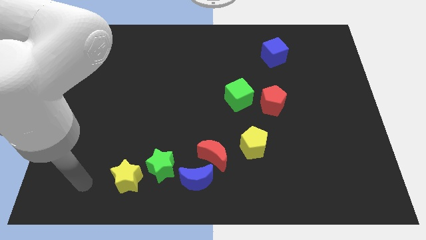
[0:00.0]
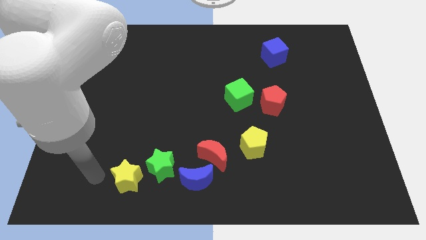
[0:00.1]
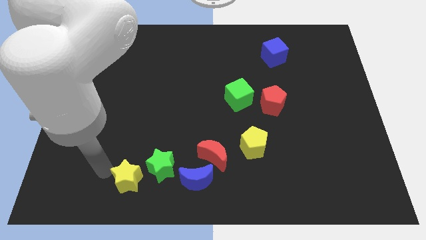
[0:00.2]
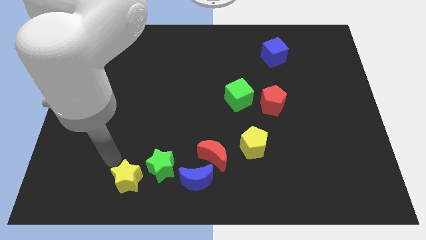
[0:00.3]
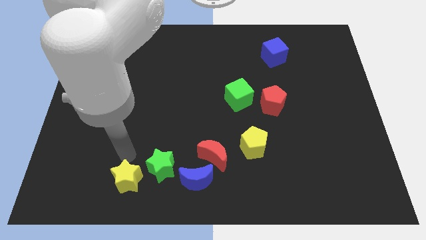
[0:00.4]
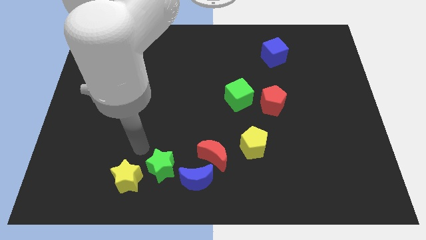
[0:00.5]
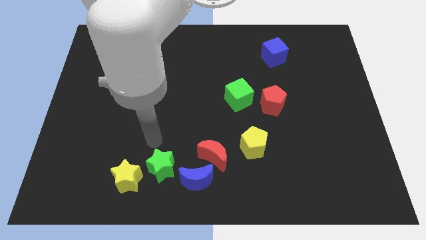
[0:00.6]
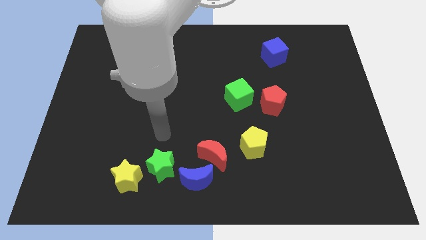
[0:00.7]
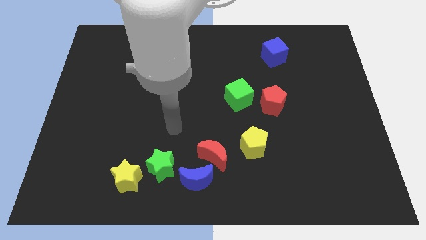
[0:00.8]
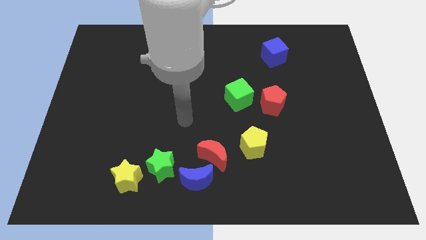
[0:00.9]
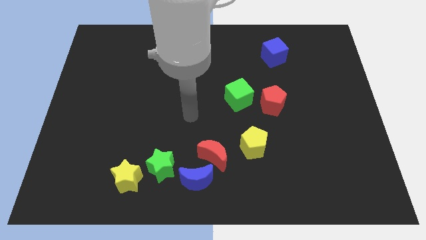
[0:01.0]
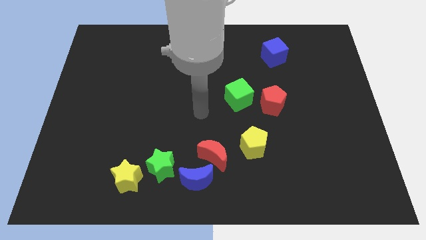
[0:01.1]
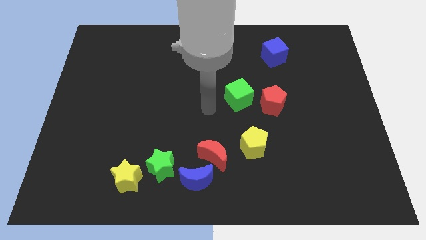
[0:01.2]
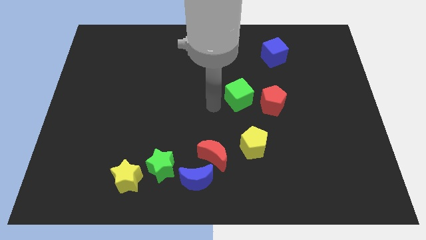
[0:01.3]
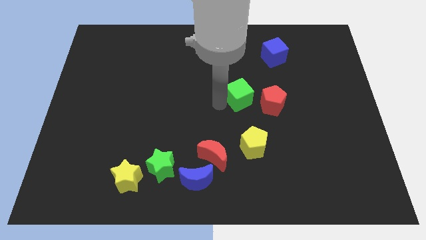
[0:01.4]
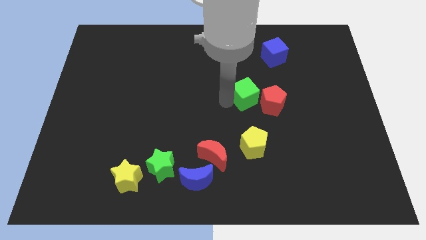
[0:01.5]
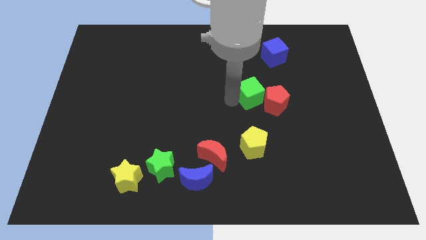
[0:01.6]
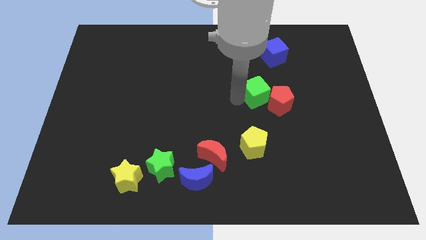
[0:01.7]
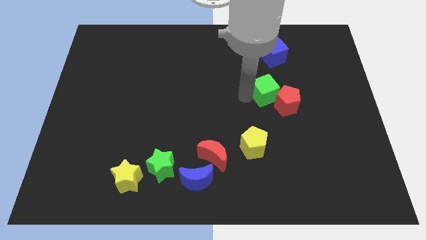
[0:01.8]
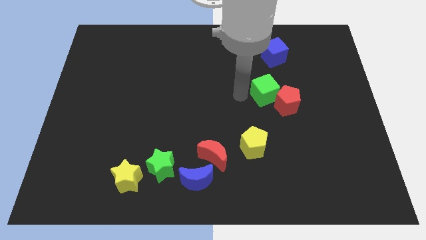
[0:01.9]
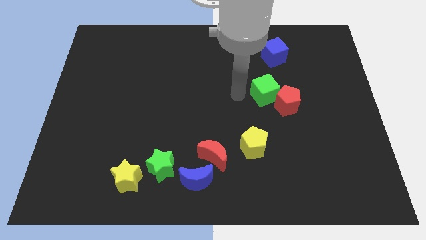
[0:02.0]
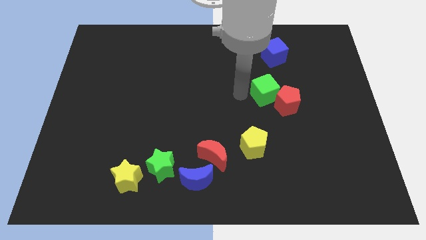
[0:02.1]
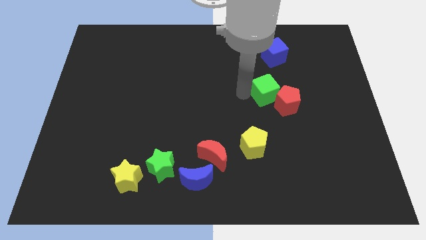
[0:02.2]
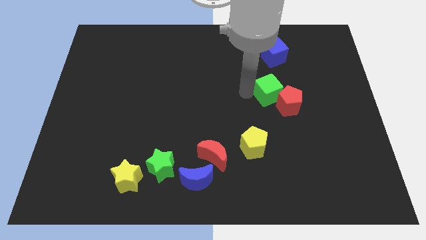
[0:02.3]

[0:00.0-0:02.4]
push the green cube to the right a little bit

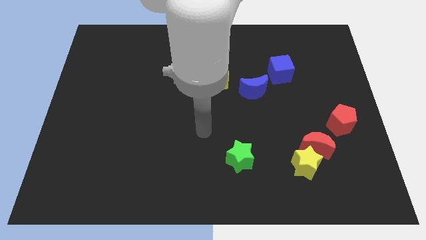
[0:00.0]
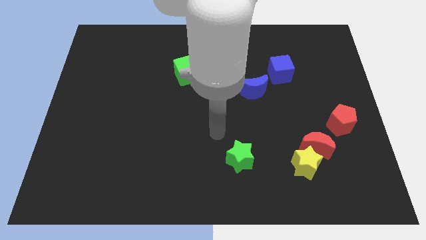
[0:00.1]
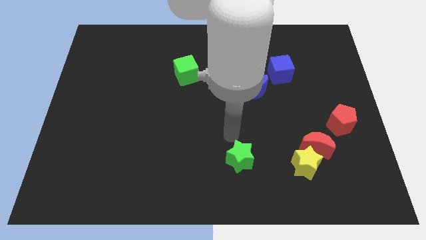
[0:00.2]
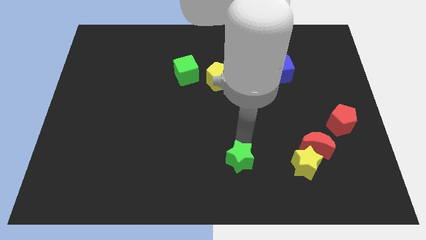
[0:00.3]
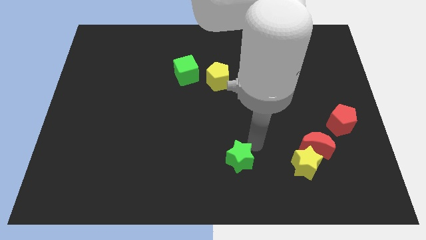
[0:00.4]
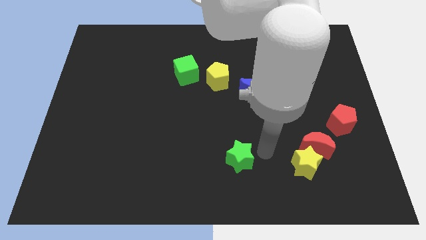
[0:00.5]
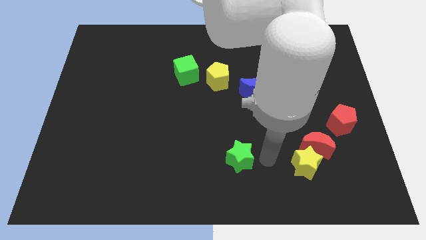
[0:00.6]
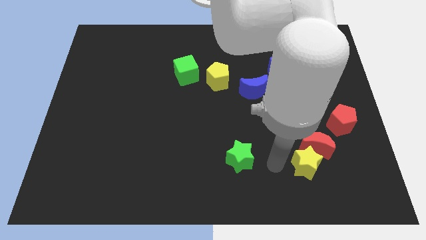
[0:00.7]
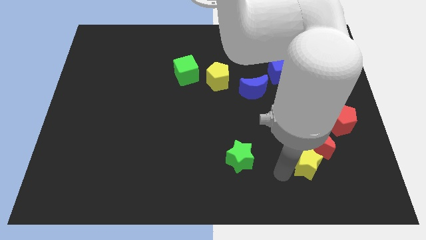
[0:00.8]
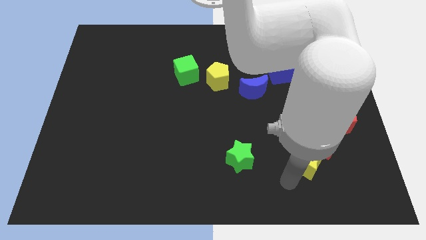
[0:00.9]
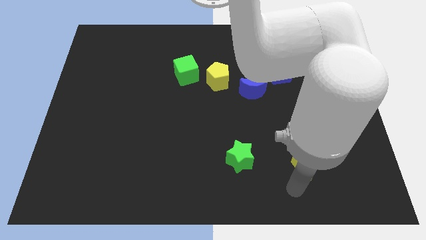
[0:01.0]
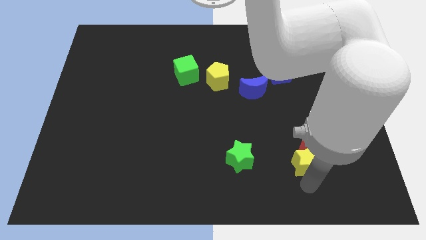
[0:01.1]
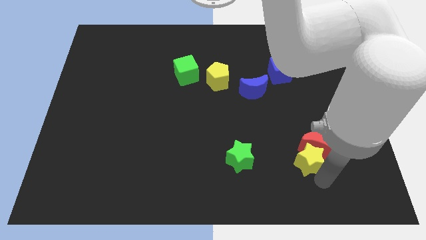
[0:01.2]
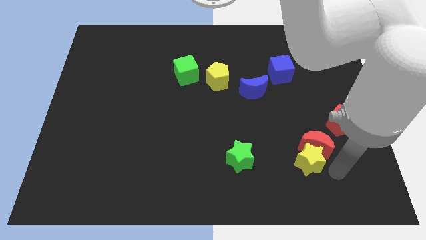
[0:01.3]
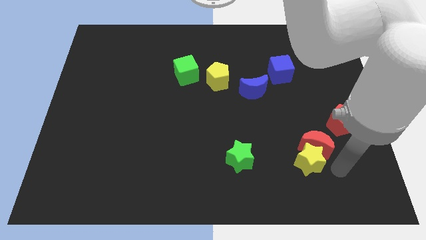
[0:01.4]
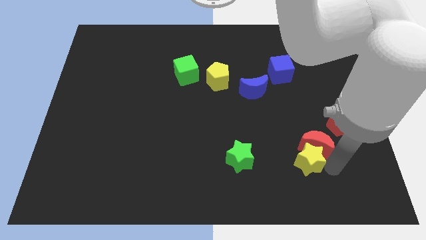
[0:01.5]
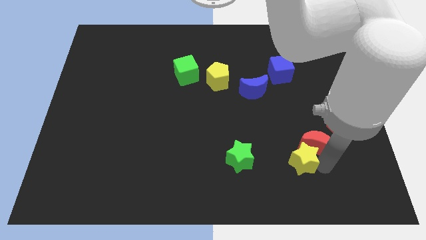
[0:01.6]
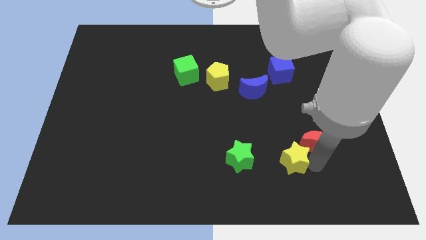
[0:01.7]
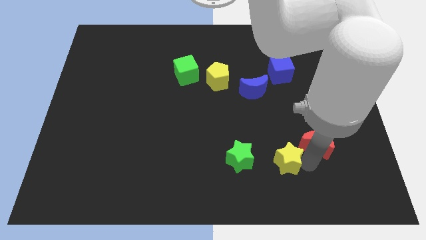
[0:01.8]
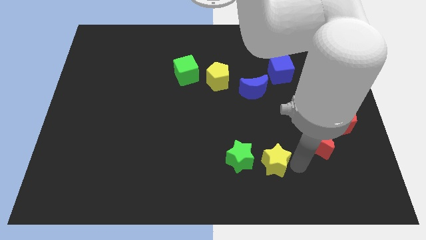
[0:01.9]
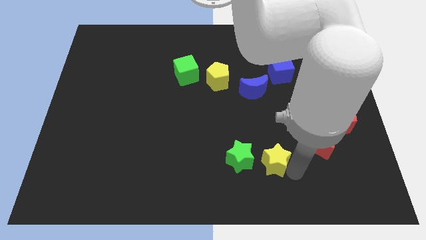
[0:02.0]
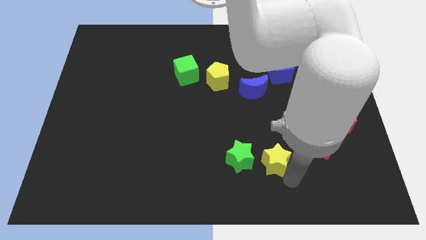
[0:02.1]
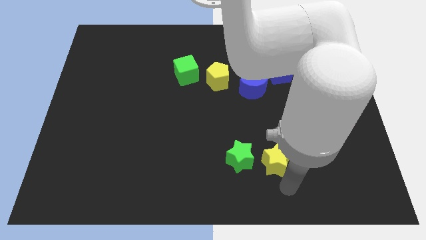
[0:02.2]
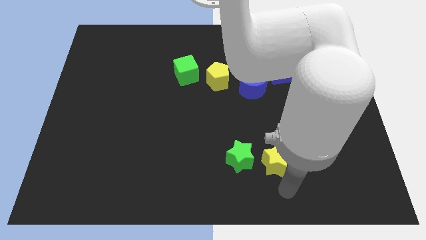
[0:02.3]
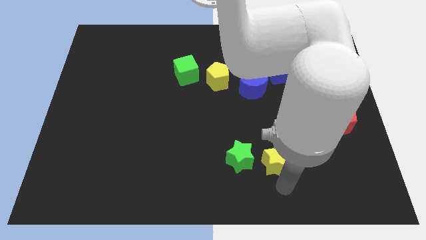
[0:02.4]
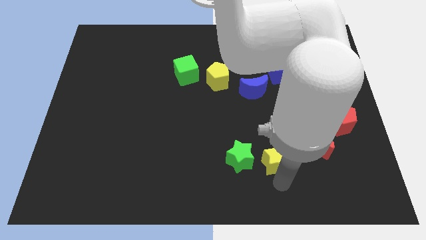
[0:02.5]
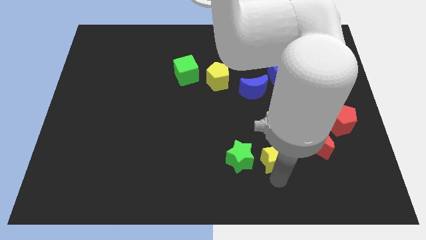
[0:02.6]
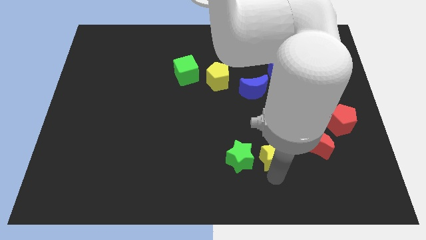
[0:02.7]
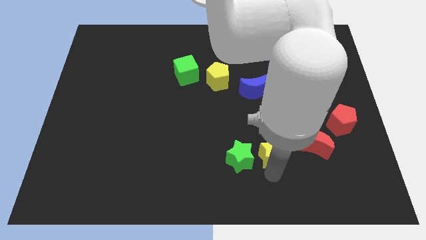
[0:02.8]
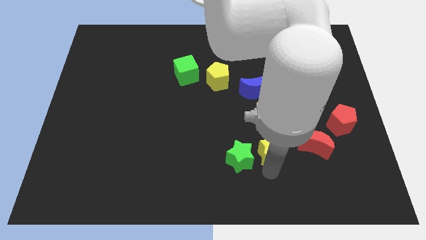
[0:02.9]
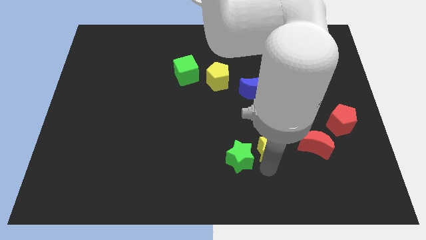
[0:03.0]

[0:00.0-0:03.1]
move the yellow star a bit upwards and to the left

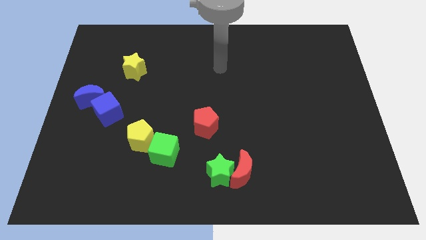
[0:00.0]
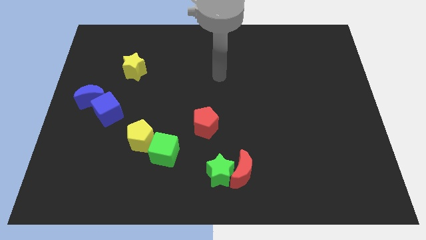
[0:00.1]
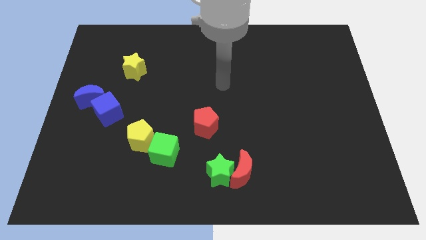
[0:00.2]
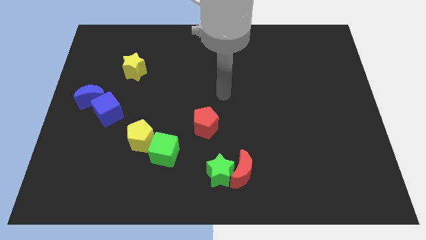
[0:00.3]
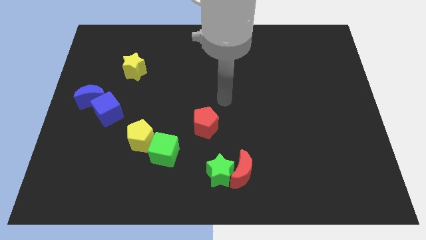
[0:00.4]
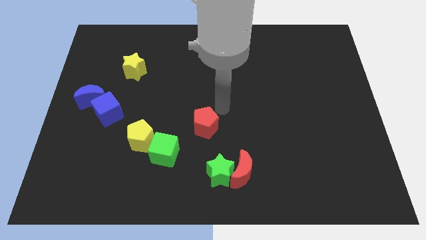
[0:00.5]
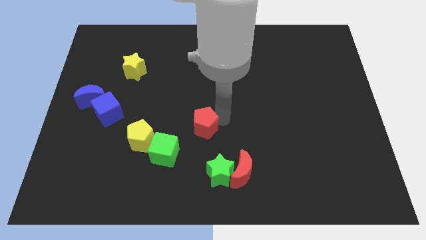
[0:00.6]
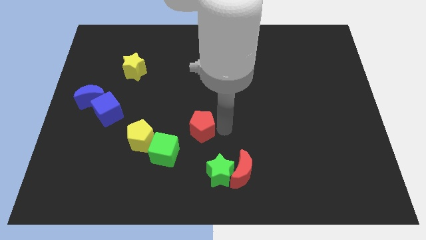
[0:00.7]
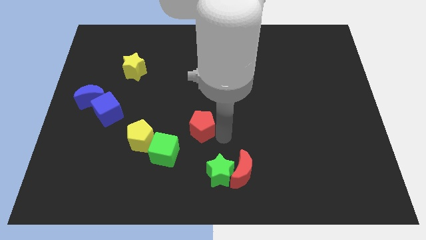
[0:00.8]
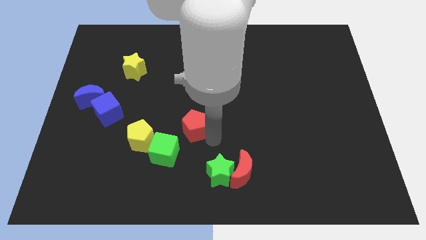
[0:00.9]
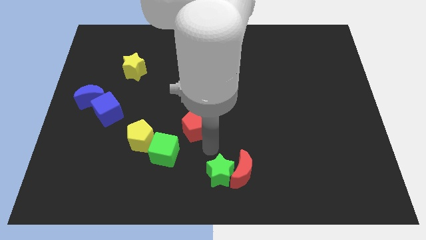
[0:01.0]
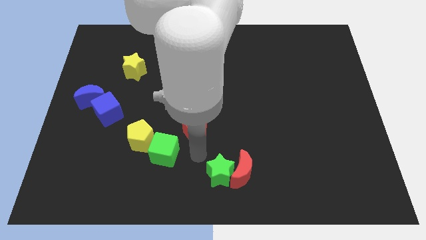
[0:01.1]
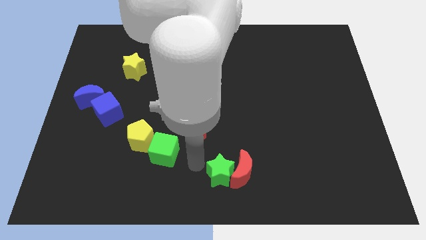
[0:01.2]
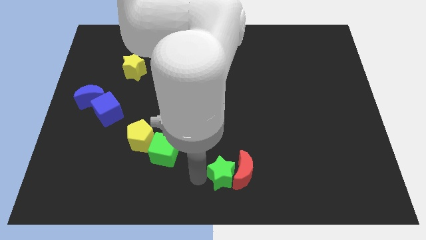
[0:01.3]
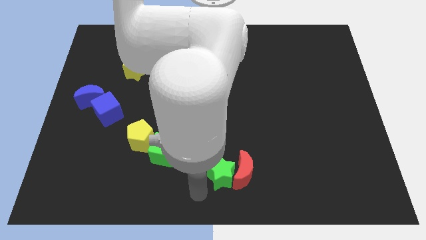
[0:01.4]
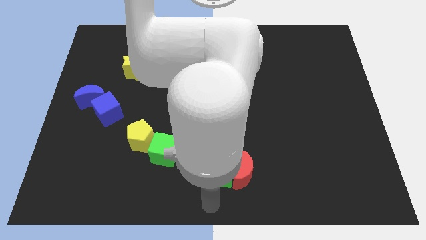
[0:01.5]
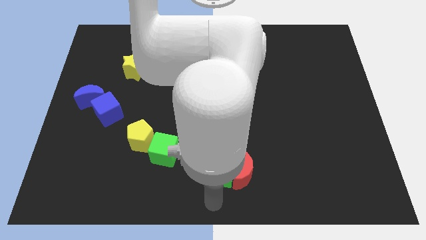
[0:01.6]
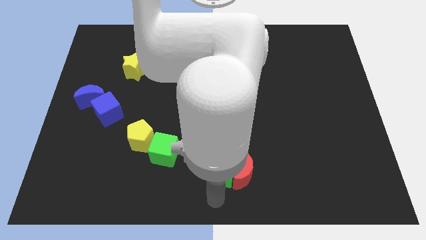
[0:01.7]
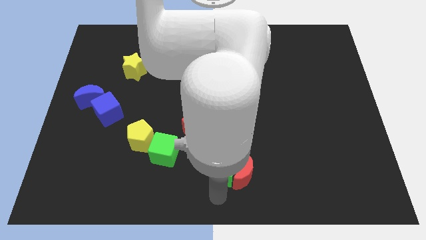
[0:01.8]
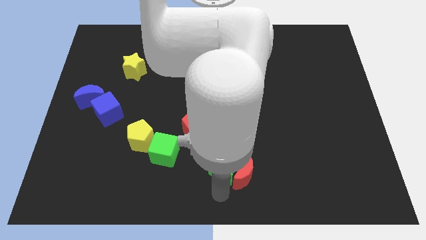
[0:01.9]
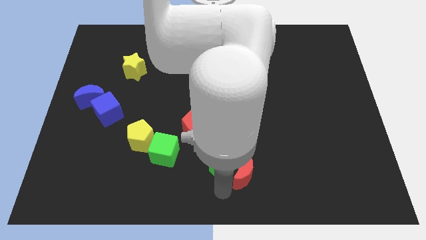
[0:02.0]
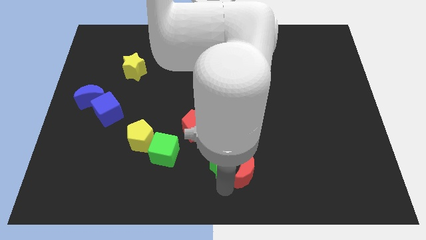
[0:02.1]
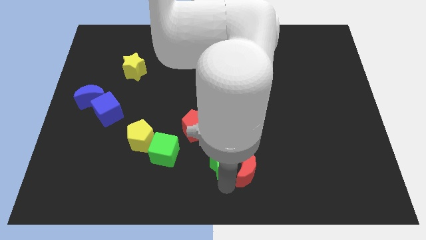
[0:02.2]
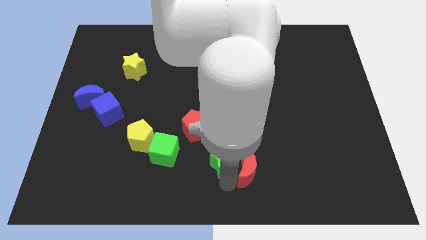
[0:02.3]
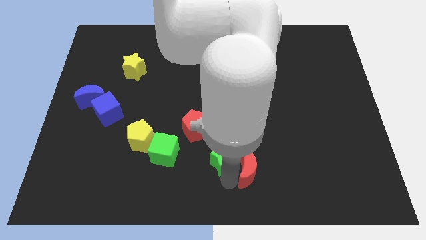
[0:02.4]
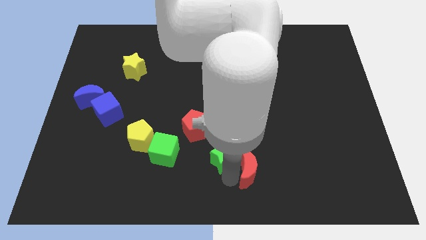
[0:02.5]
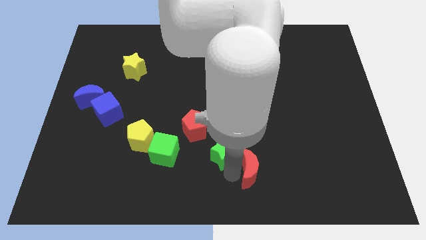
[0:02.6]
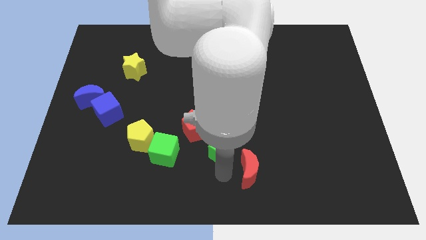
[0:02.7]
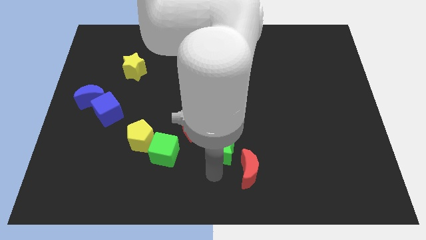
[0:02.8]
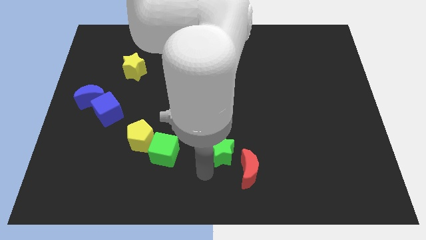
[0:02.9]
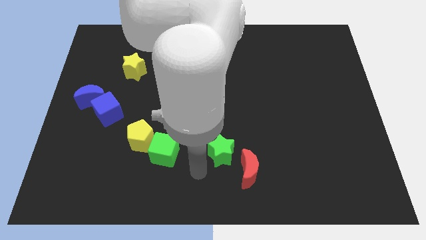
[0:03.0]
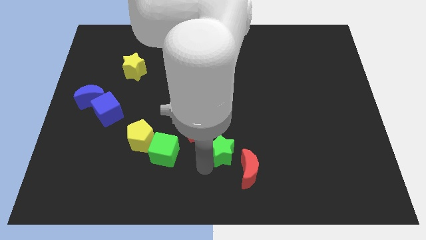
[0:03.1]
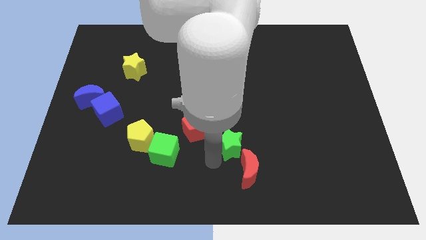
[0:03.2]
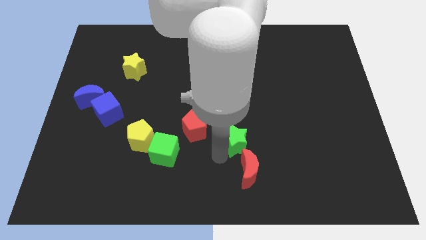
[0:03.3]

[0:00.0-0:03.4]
slightly push the green star diagonally upwards and right
